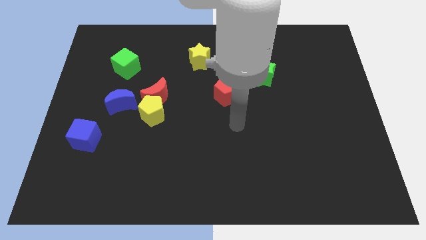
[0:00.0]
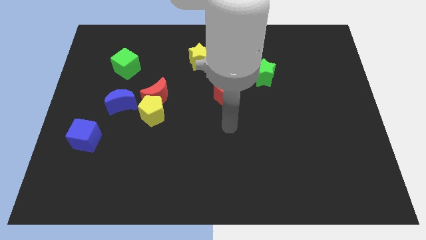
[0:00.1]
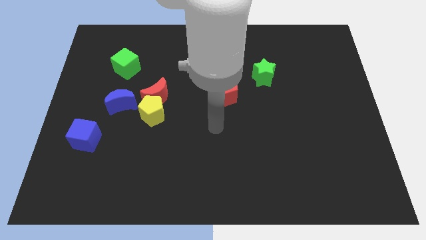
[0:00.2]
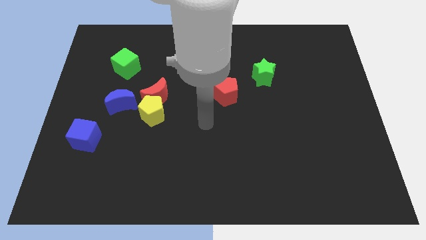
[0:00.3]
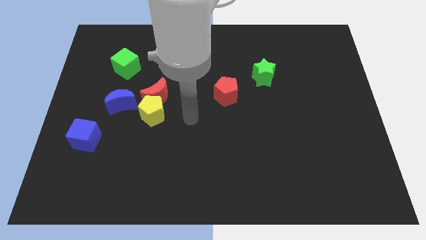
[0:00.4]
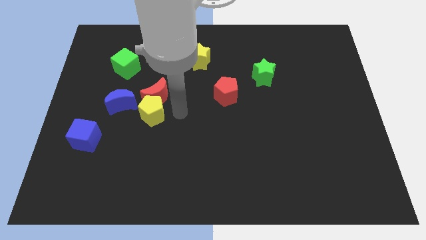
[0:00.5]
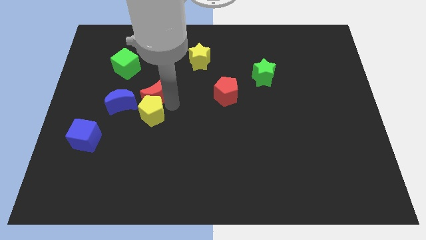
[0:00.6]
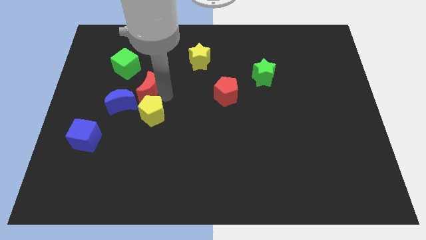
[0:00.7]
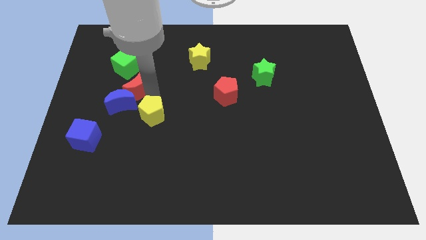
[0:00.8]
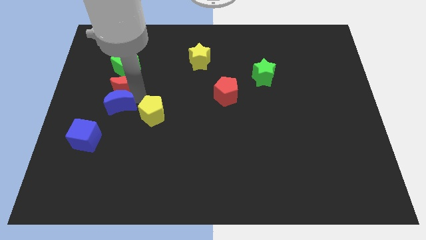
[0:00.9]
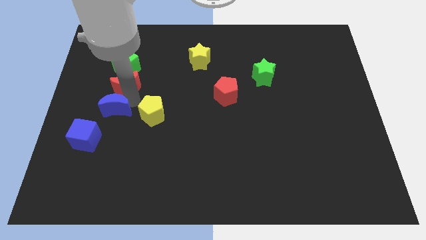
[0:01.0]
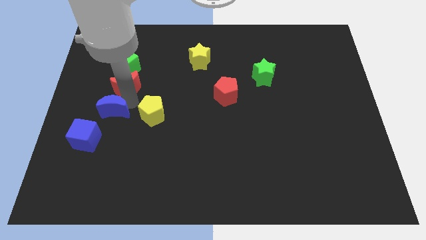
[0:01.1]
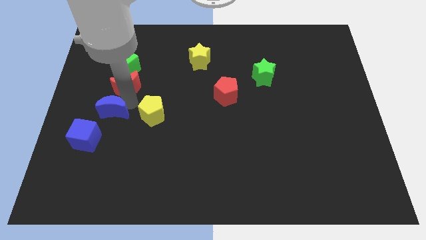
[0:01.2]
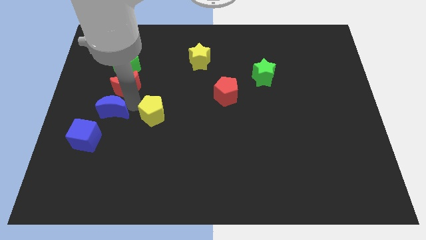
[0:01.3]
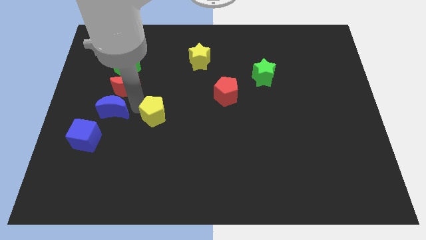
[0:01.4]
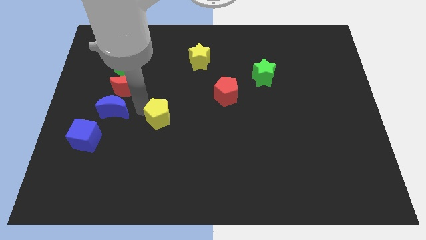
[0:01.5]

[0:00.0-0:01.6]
separate the yellow pentagon from the red moon and blue moon

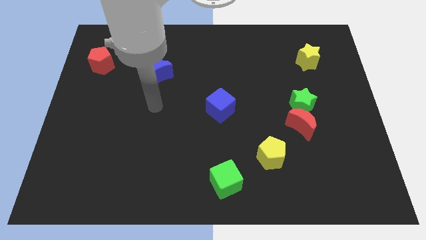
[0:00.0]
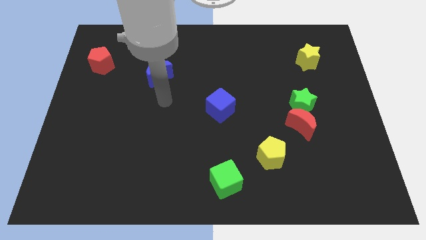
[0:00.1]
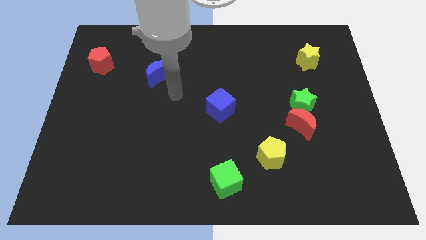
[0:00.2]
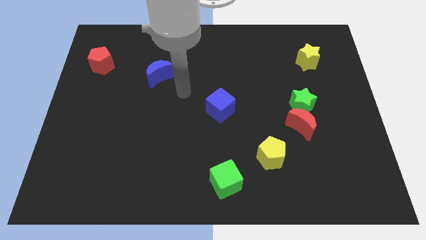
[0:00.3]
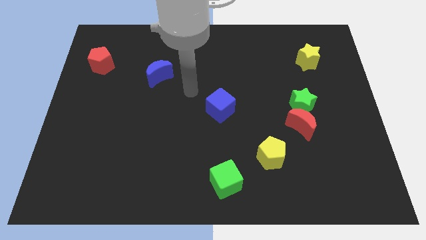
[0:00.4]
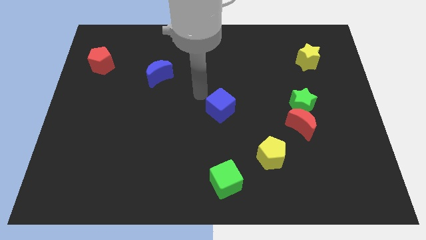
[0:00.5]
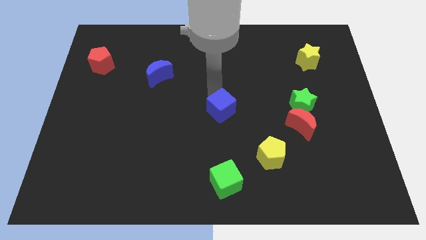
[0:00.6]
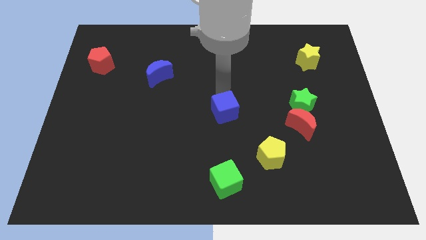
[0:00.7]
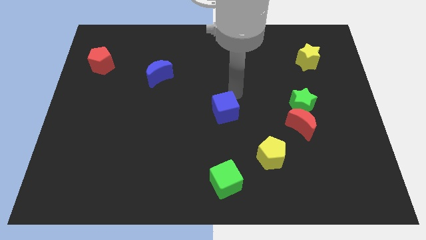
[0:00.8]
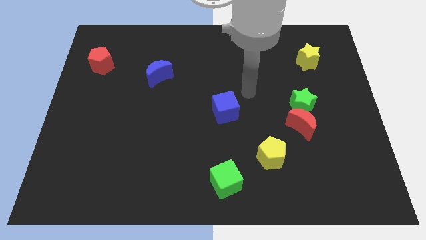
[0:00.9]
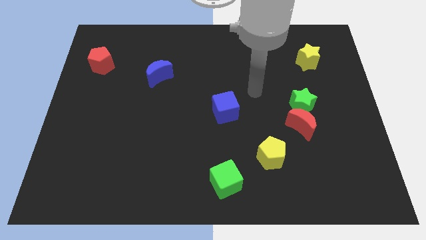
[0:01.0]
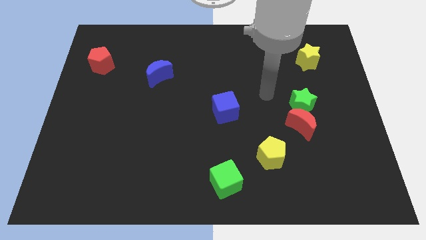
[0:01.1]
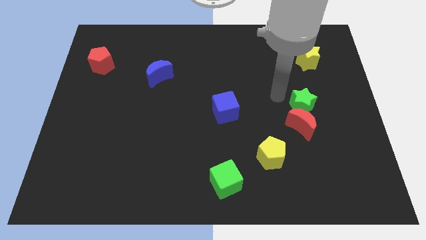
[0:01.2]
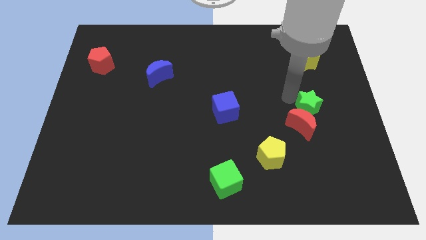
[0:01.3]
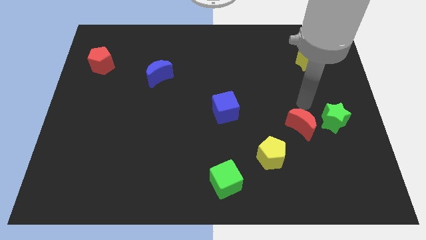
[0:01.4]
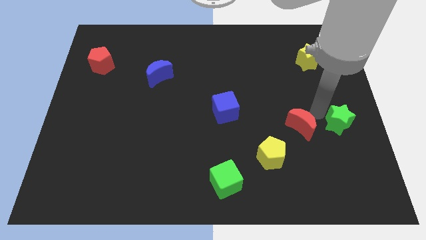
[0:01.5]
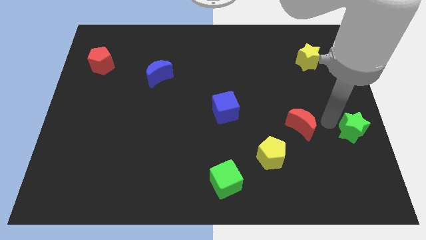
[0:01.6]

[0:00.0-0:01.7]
pull the red moon apart from the green star

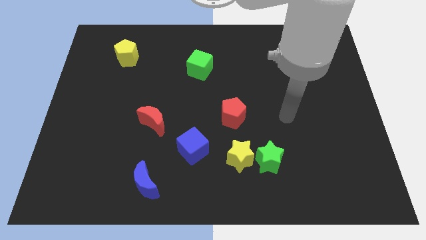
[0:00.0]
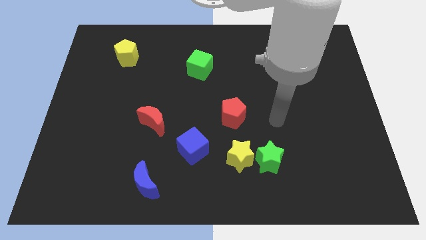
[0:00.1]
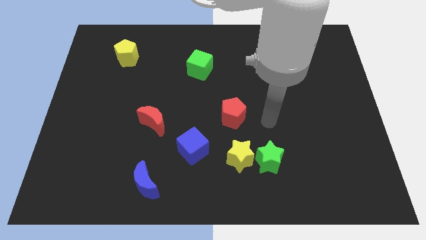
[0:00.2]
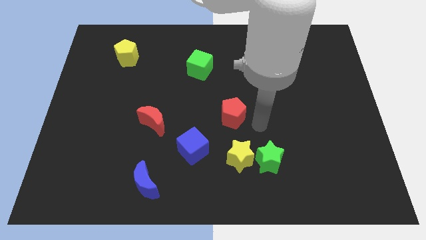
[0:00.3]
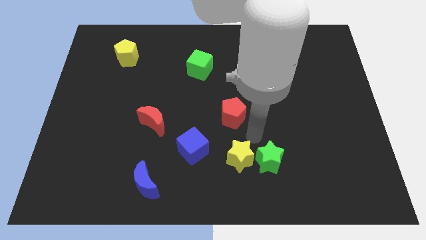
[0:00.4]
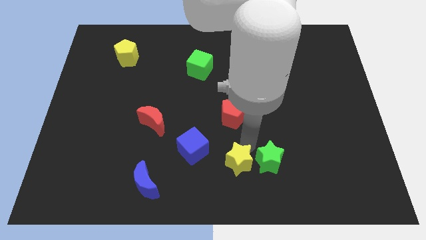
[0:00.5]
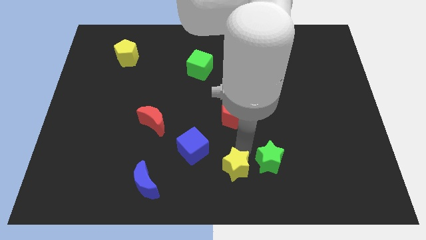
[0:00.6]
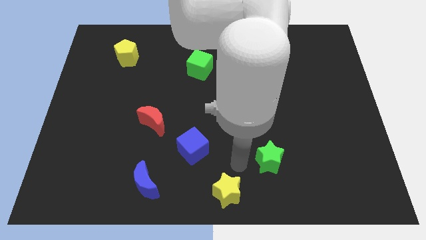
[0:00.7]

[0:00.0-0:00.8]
pull the green star apart from the yellow star

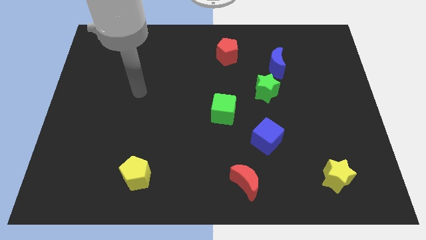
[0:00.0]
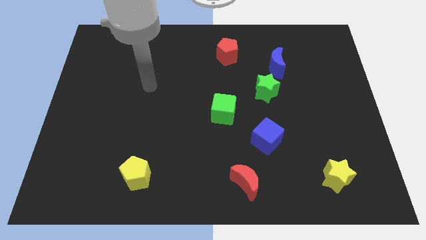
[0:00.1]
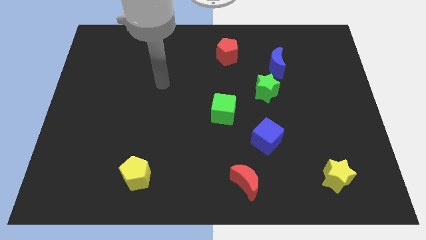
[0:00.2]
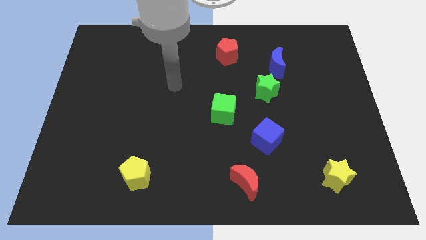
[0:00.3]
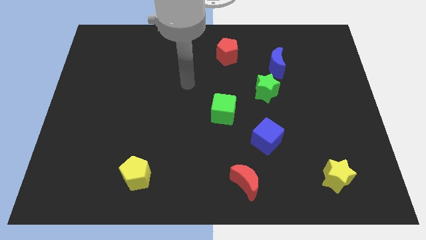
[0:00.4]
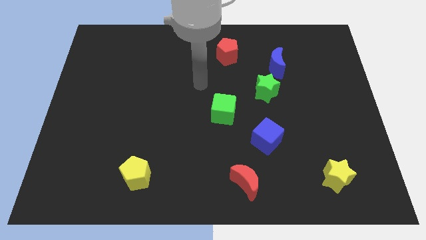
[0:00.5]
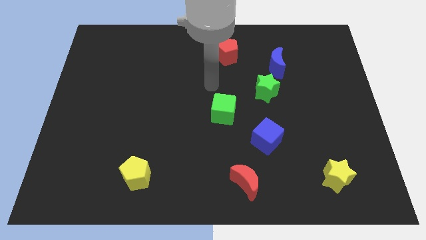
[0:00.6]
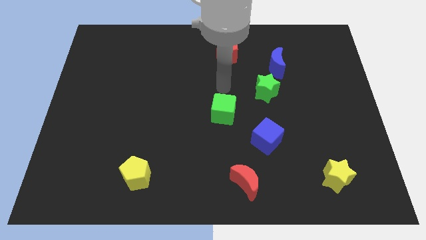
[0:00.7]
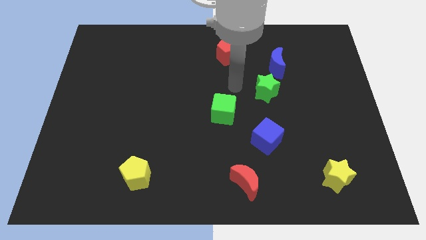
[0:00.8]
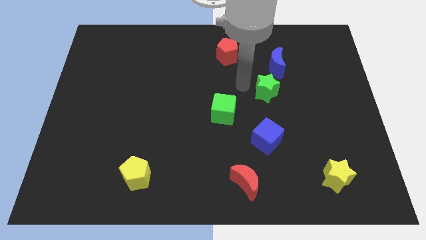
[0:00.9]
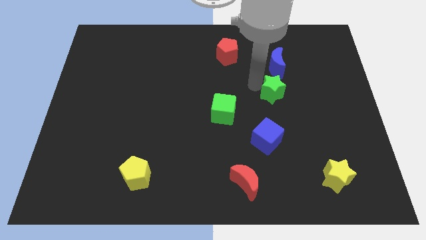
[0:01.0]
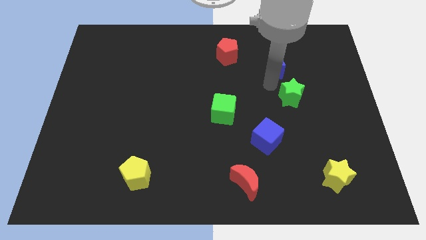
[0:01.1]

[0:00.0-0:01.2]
move the blue moon away from the green star

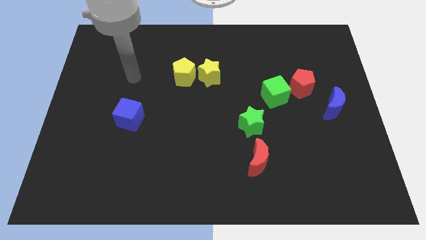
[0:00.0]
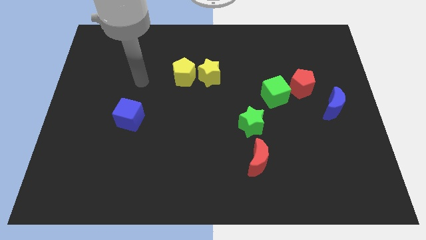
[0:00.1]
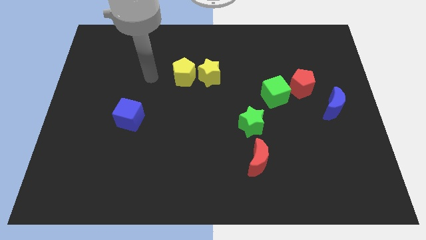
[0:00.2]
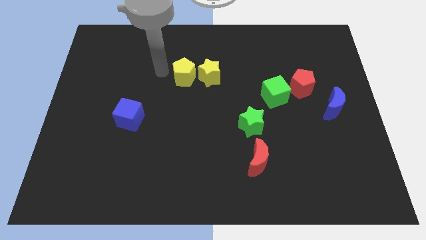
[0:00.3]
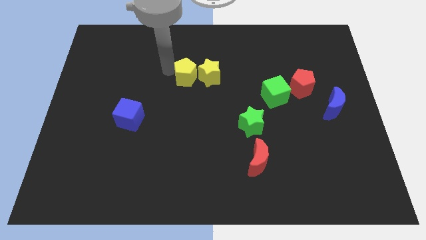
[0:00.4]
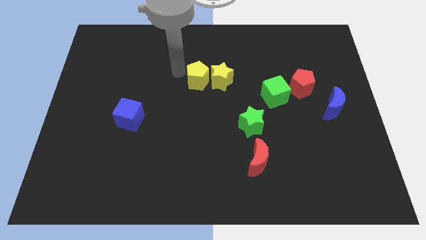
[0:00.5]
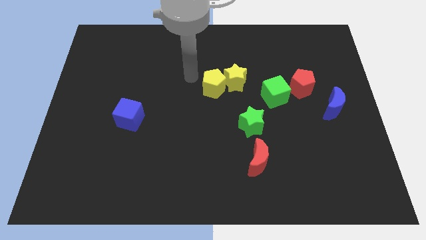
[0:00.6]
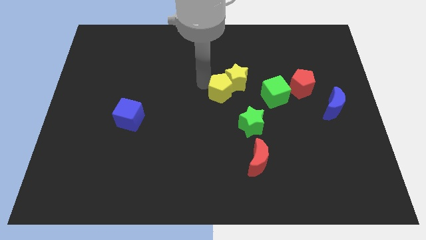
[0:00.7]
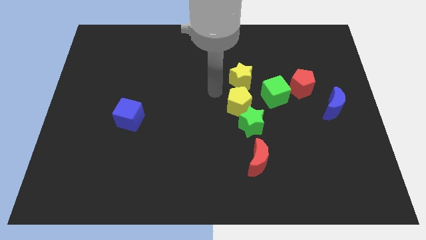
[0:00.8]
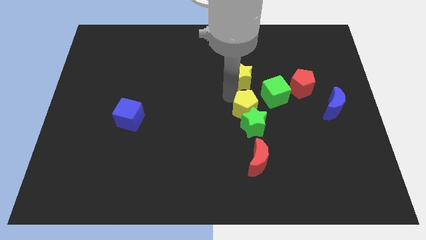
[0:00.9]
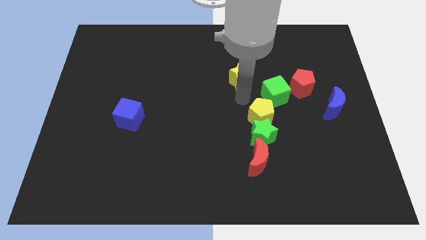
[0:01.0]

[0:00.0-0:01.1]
separate the yellow star from the yellow pentagon

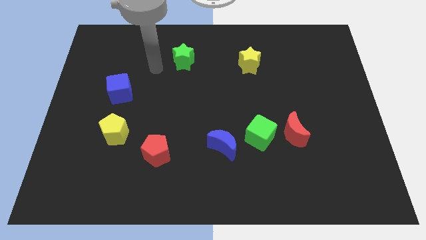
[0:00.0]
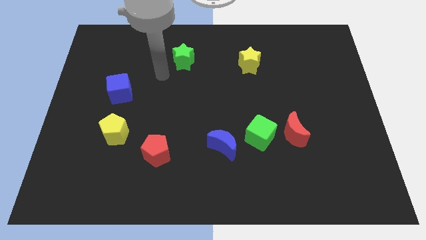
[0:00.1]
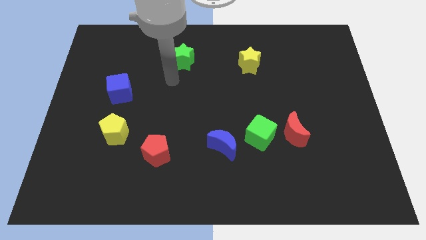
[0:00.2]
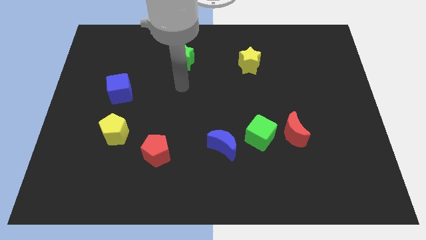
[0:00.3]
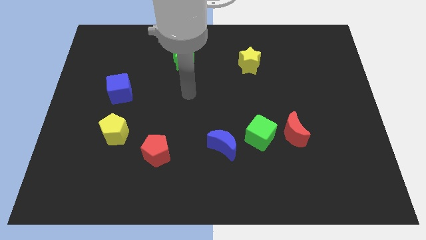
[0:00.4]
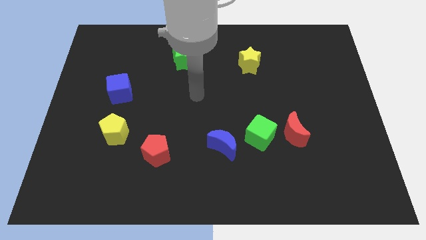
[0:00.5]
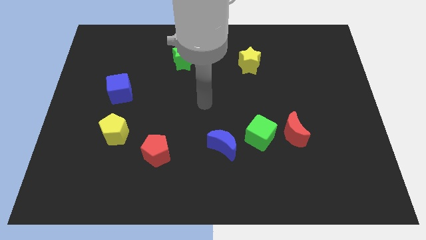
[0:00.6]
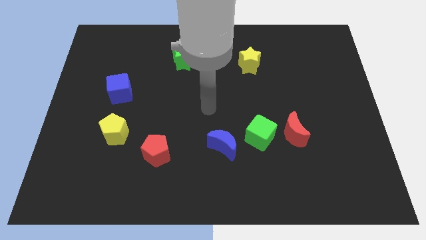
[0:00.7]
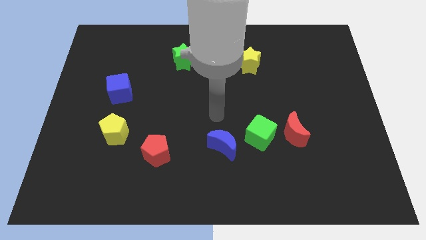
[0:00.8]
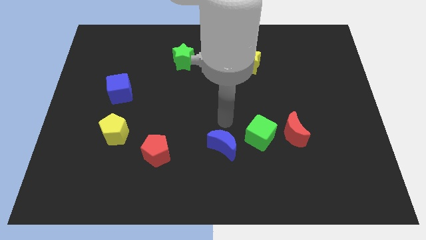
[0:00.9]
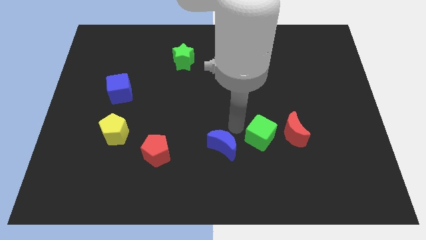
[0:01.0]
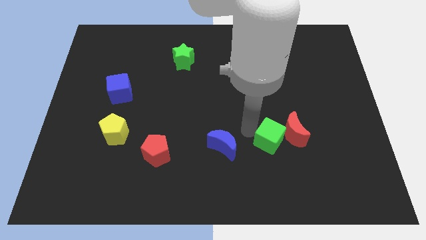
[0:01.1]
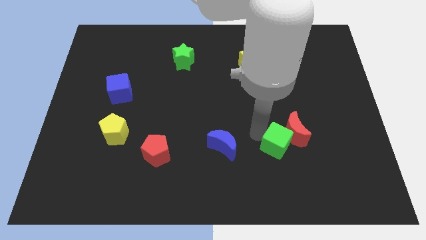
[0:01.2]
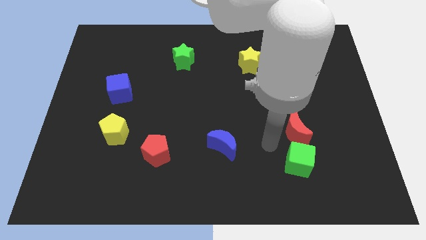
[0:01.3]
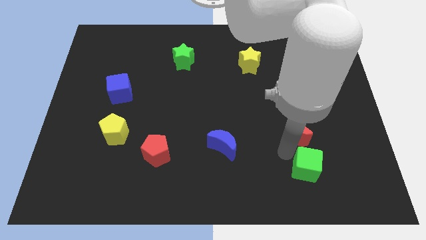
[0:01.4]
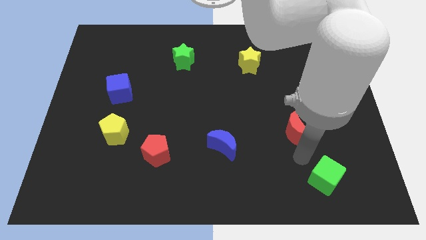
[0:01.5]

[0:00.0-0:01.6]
pull the red moon apart from the green cube

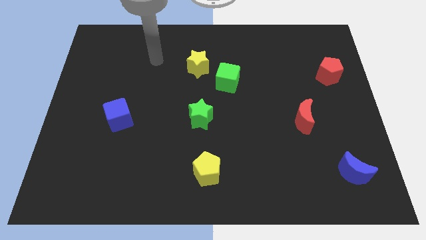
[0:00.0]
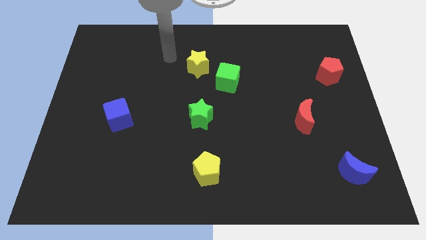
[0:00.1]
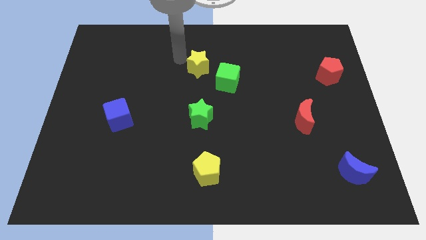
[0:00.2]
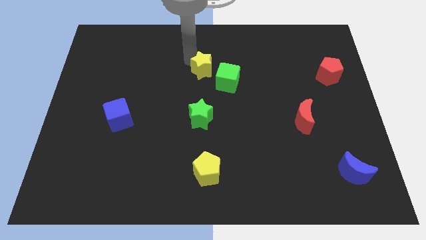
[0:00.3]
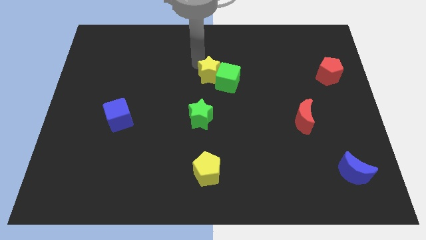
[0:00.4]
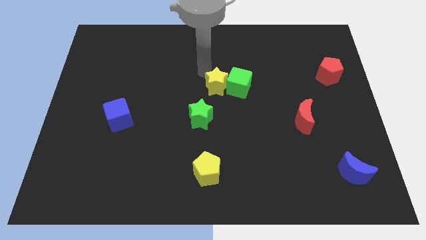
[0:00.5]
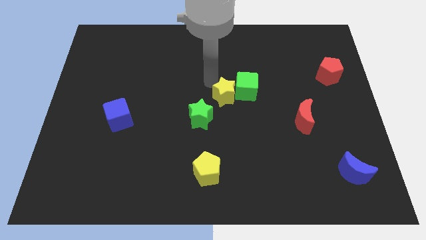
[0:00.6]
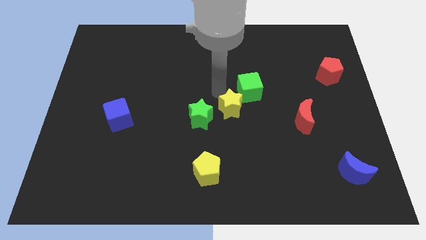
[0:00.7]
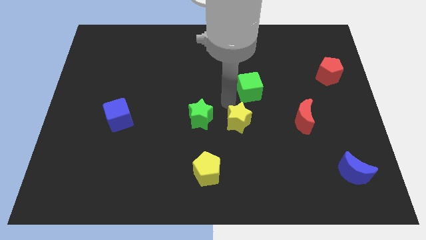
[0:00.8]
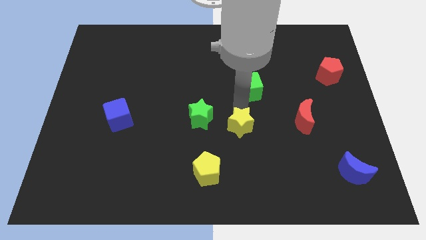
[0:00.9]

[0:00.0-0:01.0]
move the green cube away from the yellow star

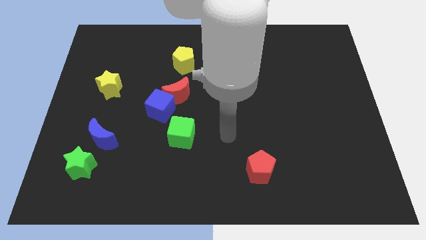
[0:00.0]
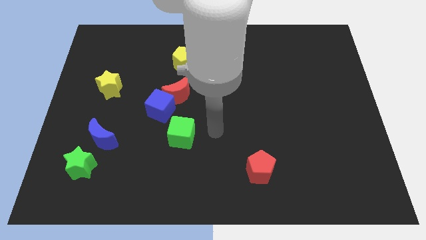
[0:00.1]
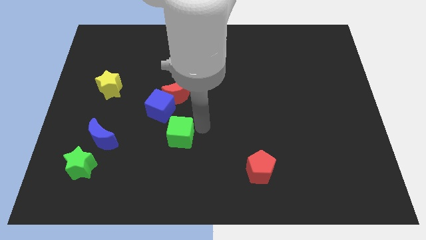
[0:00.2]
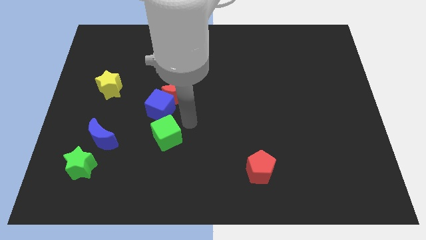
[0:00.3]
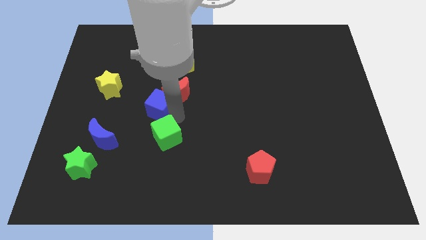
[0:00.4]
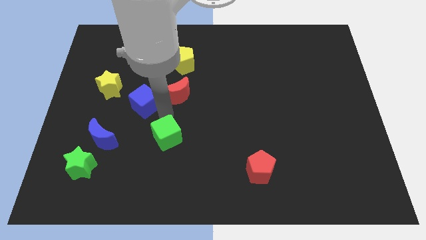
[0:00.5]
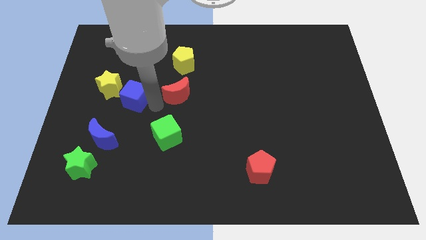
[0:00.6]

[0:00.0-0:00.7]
separate the red moon from the blue cube
